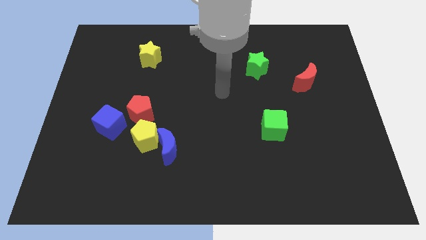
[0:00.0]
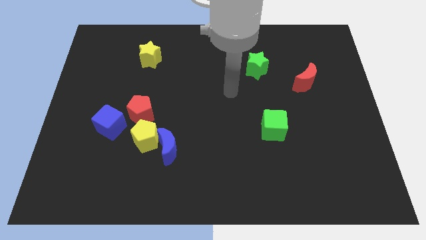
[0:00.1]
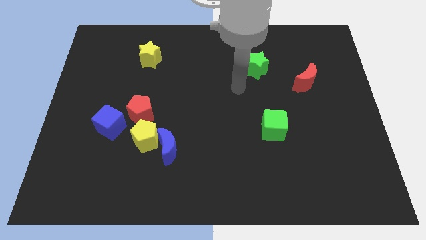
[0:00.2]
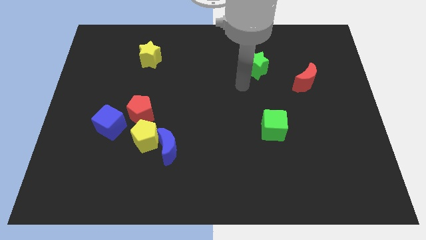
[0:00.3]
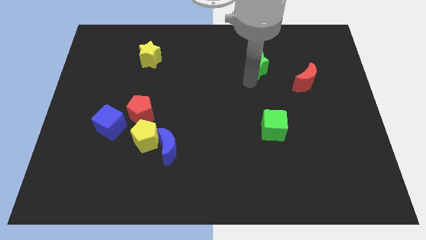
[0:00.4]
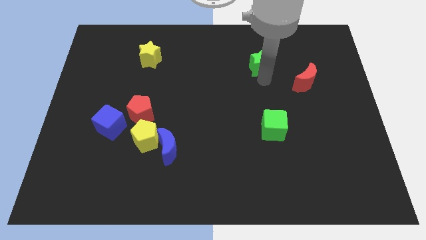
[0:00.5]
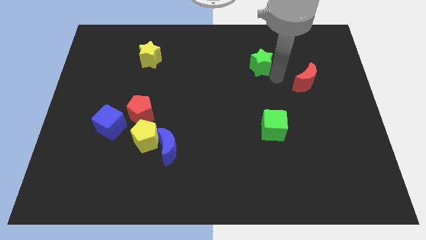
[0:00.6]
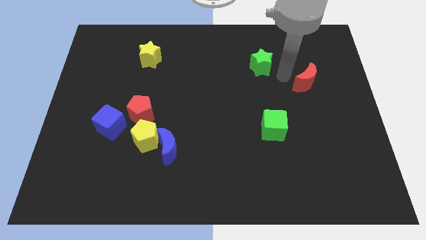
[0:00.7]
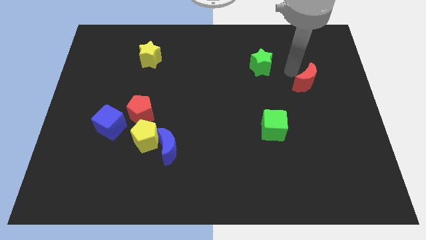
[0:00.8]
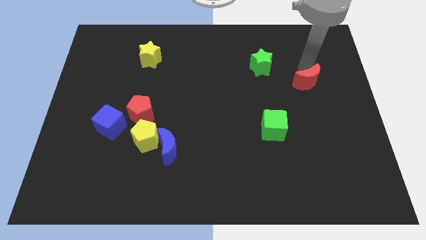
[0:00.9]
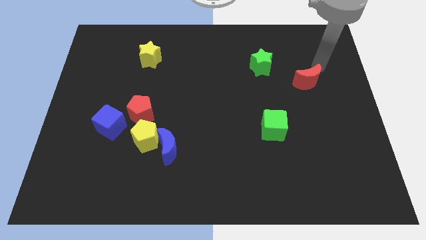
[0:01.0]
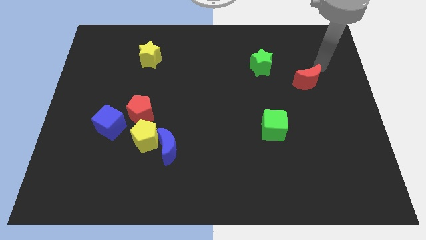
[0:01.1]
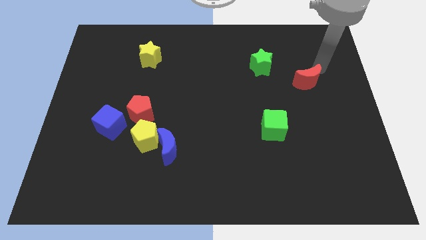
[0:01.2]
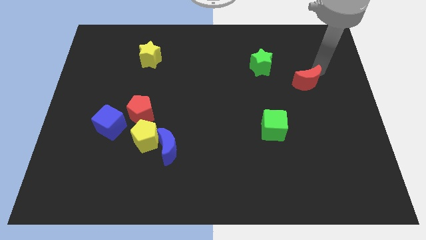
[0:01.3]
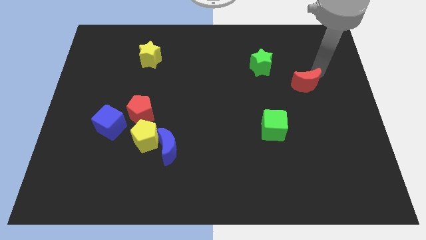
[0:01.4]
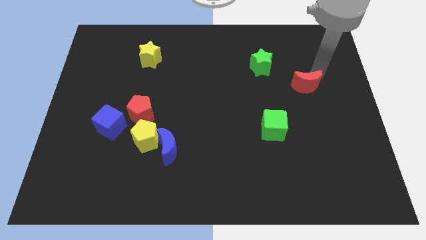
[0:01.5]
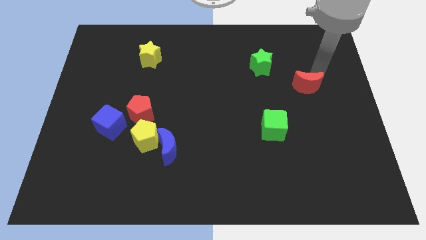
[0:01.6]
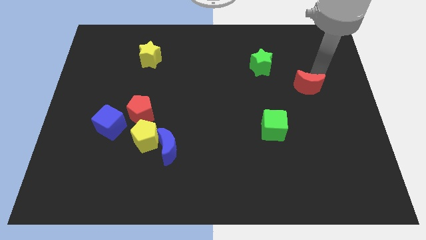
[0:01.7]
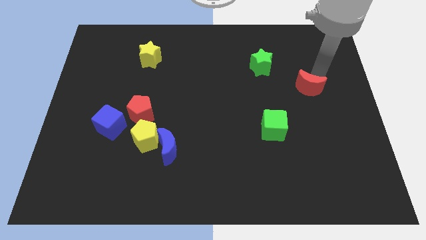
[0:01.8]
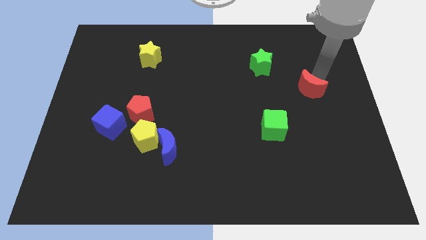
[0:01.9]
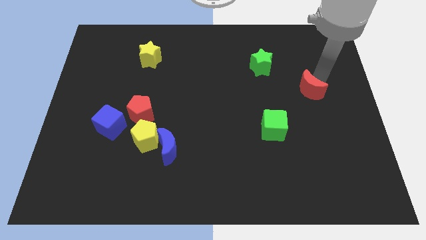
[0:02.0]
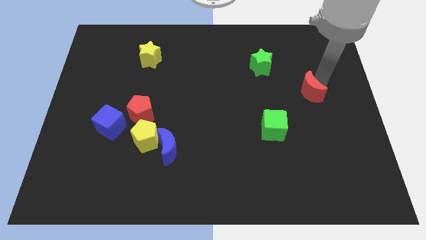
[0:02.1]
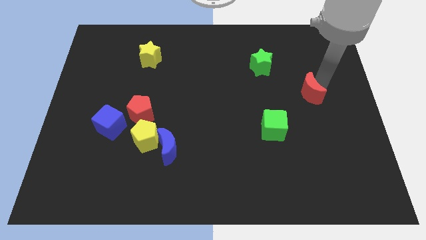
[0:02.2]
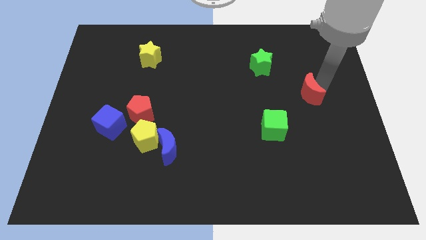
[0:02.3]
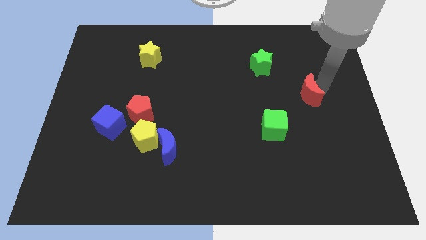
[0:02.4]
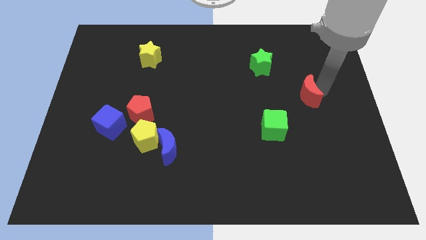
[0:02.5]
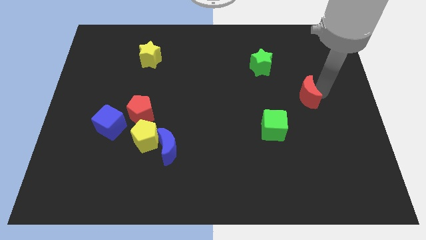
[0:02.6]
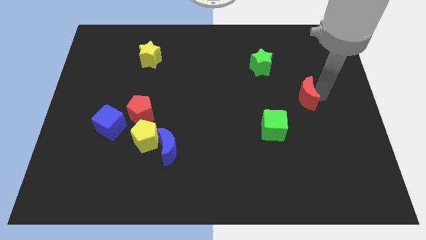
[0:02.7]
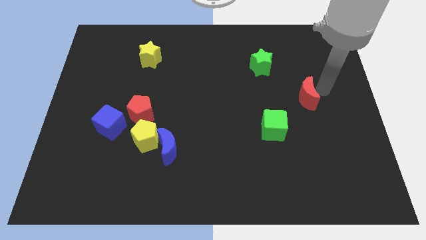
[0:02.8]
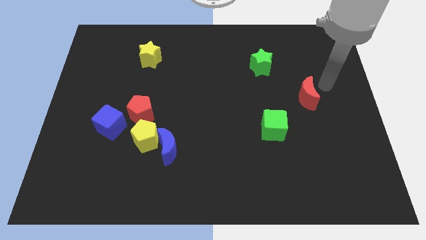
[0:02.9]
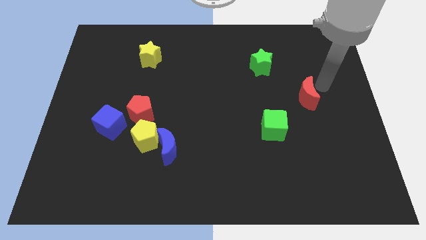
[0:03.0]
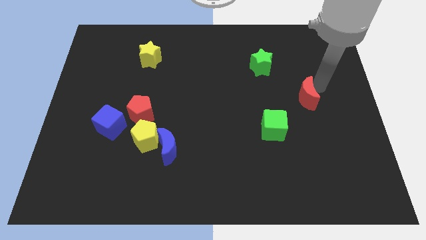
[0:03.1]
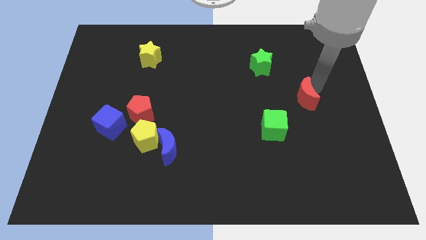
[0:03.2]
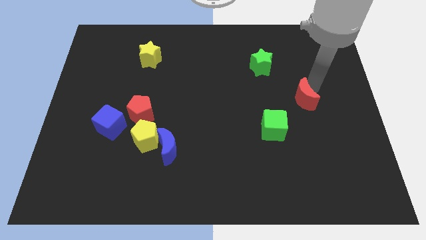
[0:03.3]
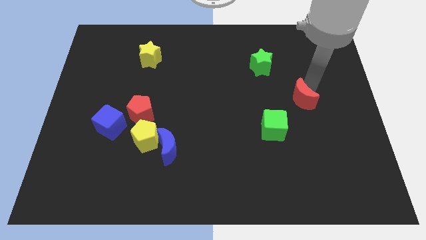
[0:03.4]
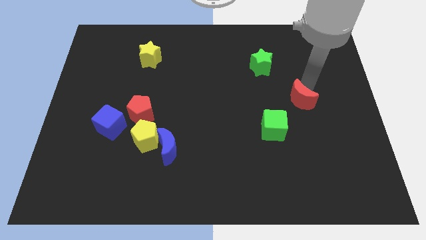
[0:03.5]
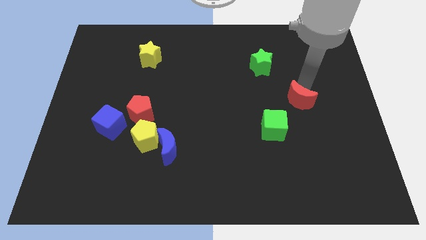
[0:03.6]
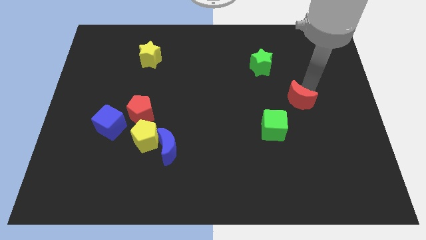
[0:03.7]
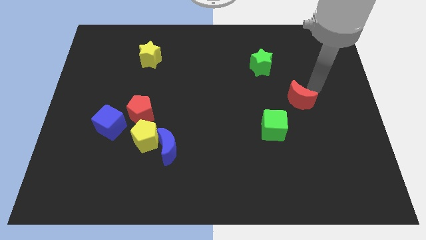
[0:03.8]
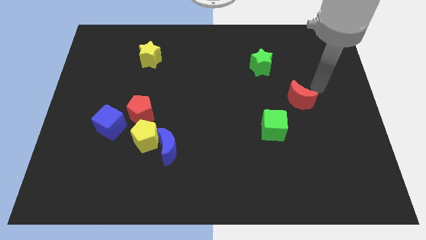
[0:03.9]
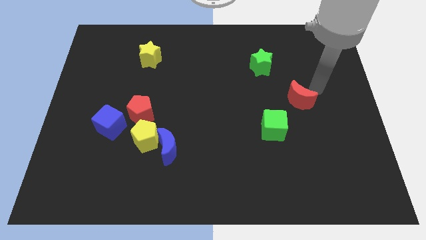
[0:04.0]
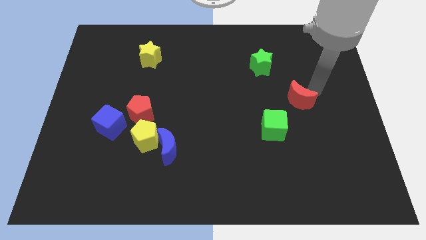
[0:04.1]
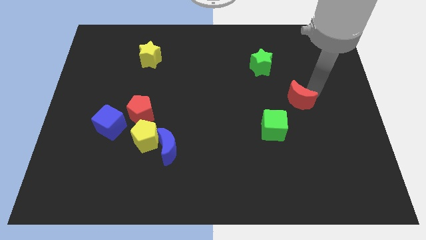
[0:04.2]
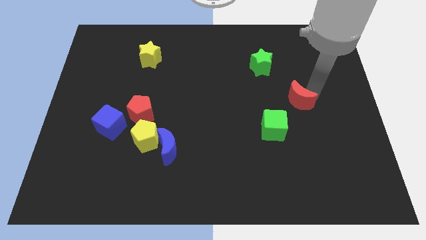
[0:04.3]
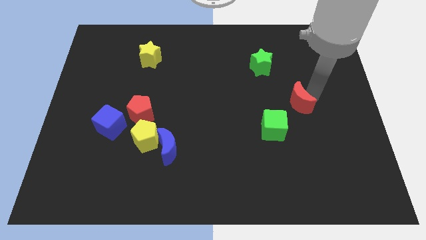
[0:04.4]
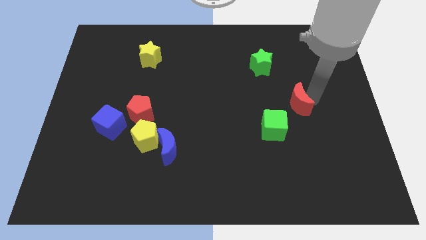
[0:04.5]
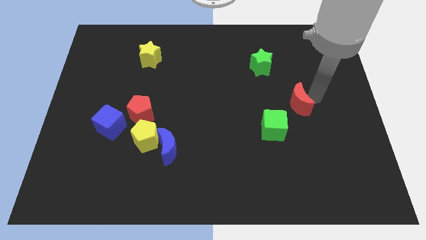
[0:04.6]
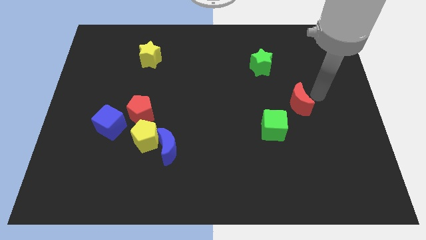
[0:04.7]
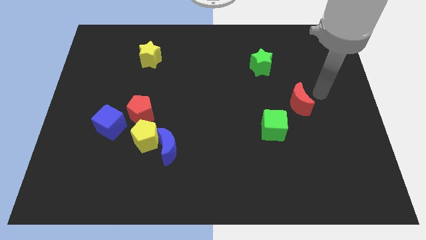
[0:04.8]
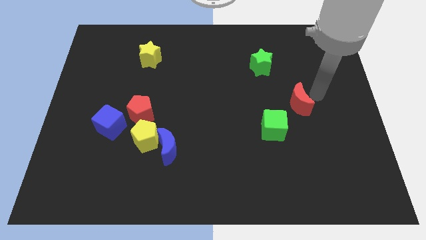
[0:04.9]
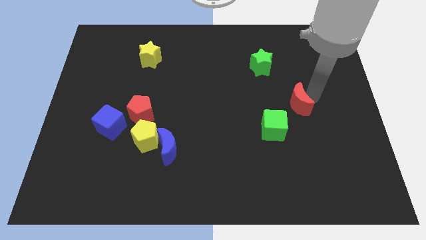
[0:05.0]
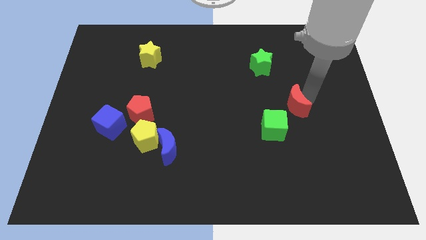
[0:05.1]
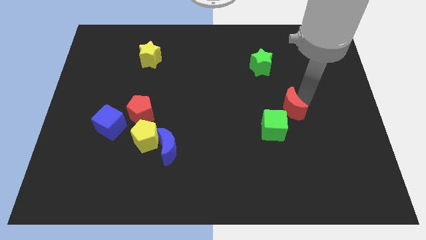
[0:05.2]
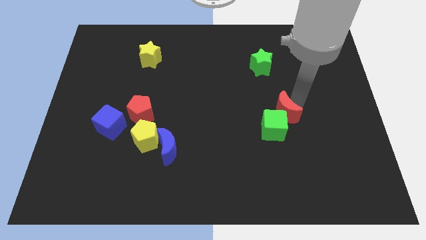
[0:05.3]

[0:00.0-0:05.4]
move the red moon close to the green cube

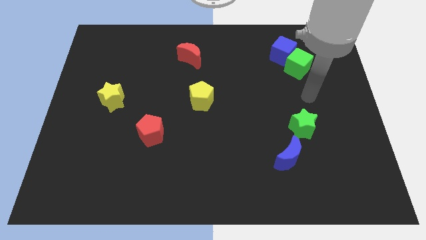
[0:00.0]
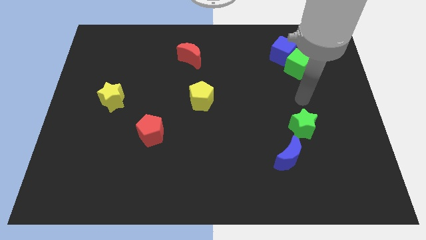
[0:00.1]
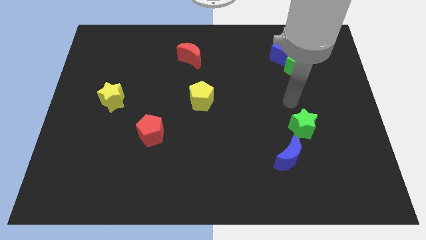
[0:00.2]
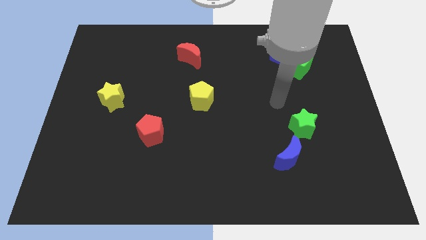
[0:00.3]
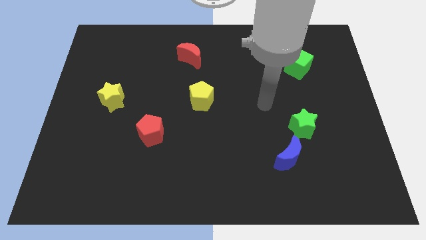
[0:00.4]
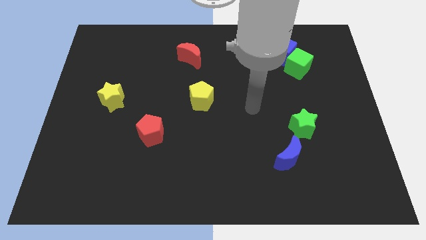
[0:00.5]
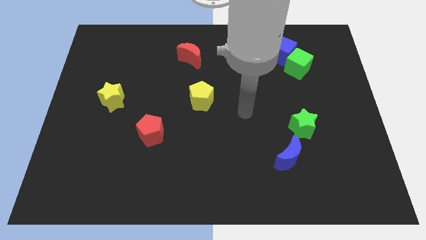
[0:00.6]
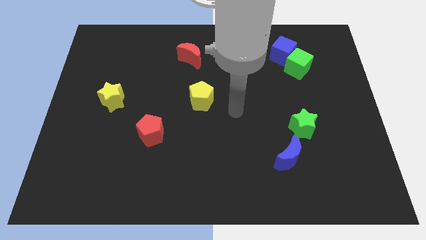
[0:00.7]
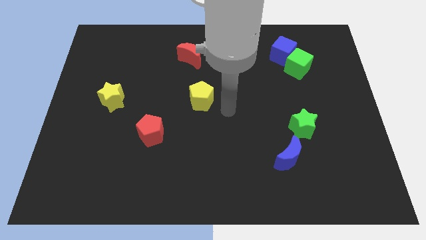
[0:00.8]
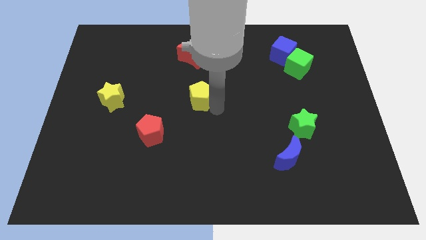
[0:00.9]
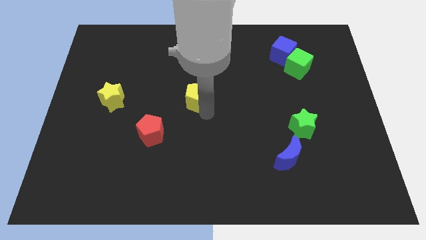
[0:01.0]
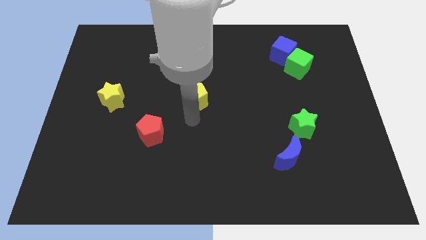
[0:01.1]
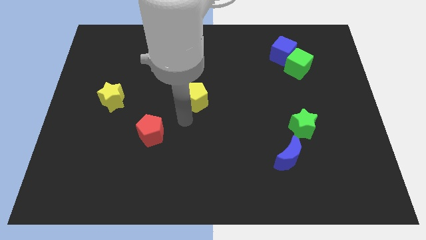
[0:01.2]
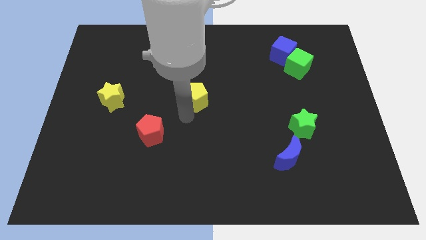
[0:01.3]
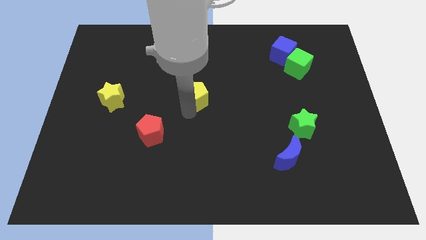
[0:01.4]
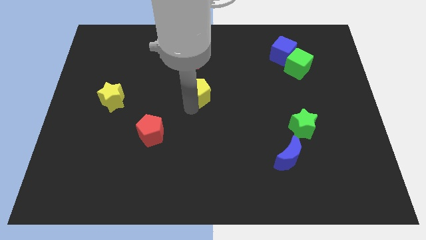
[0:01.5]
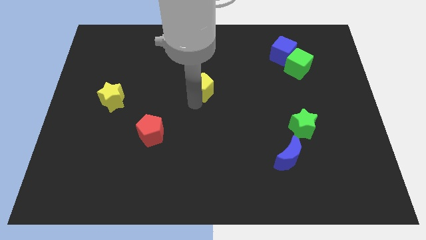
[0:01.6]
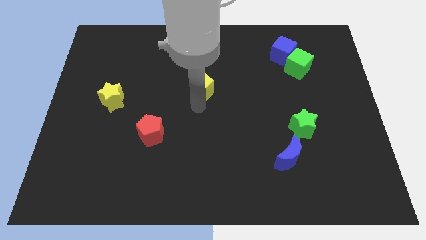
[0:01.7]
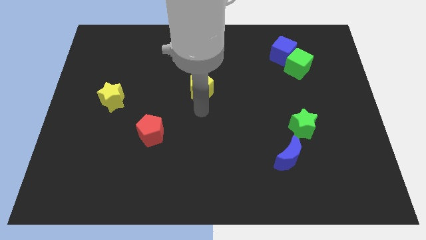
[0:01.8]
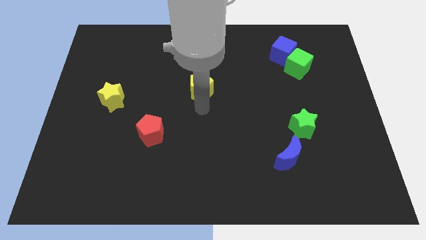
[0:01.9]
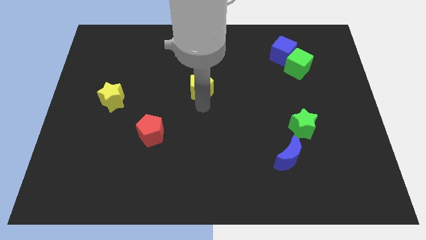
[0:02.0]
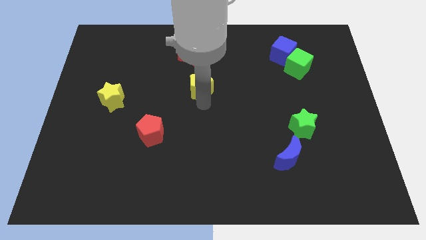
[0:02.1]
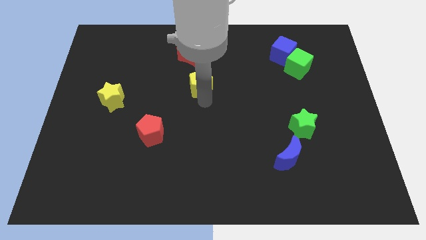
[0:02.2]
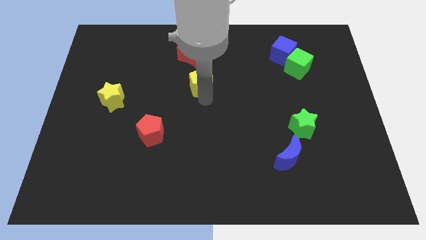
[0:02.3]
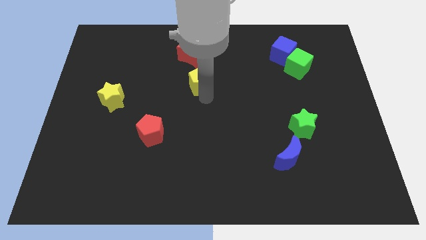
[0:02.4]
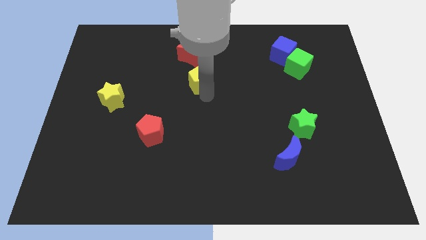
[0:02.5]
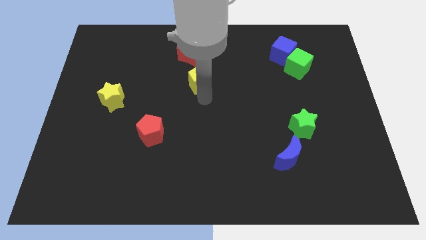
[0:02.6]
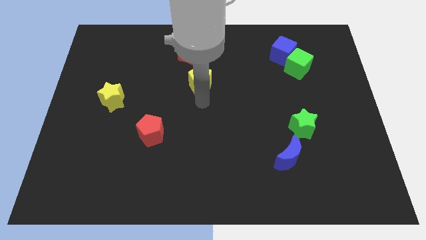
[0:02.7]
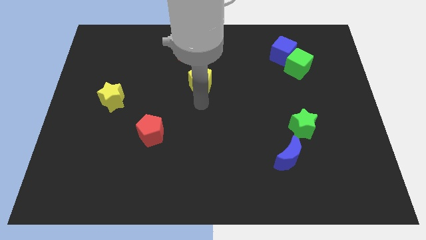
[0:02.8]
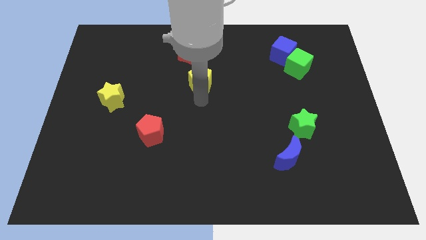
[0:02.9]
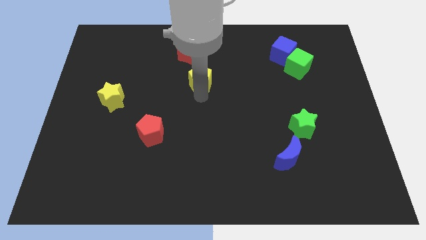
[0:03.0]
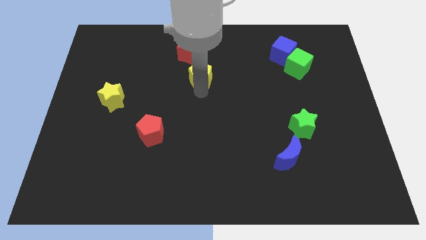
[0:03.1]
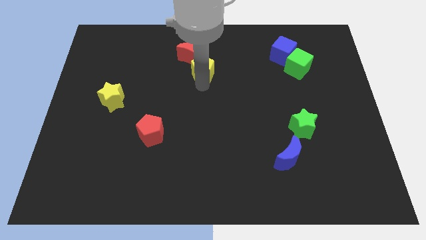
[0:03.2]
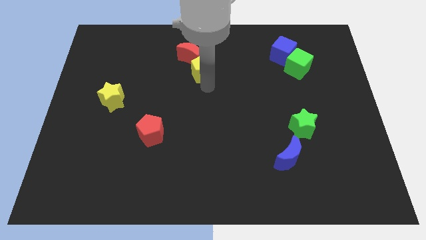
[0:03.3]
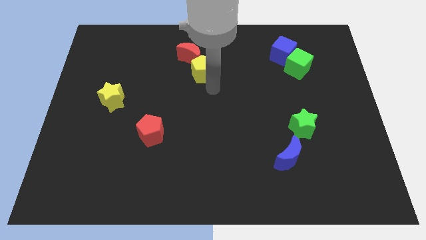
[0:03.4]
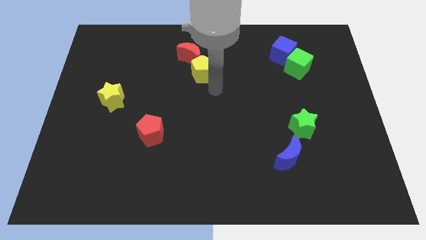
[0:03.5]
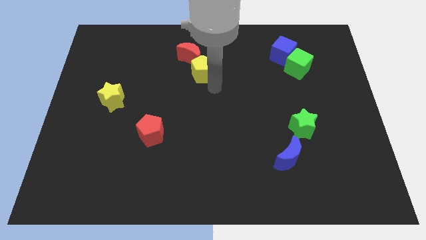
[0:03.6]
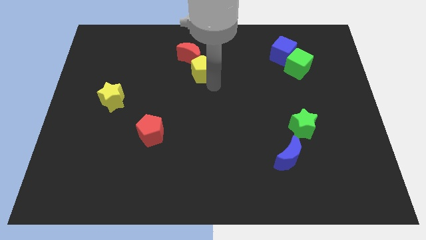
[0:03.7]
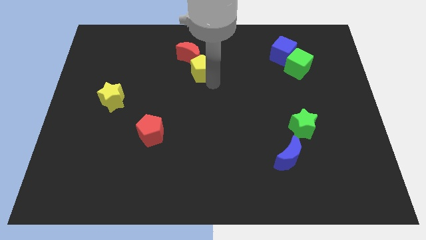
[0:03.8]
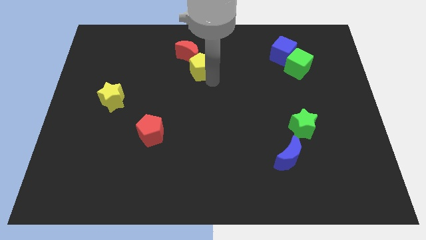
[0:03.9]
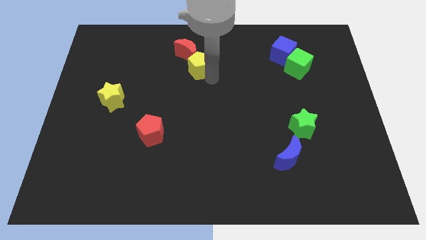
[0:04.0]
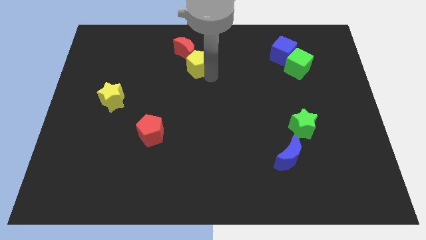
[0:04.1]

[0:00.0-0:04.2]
push the yellow pentagon next to the red moon
